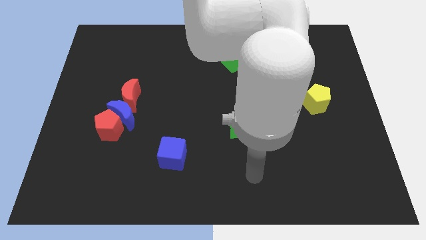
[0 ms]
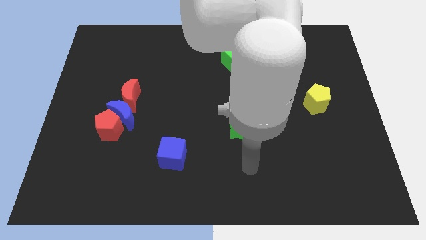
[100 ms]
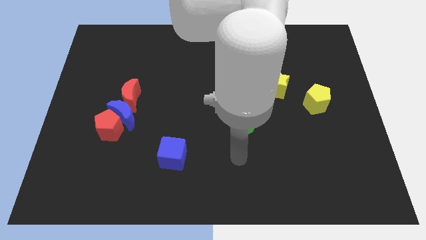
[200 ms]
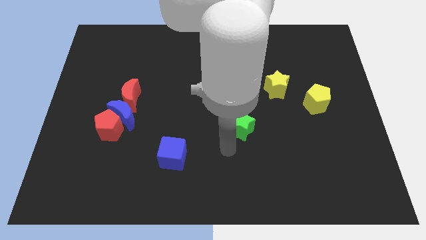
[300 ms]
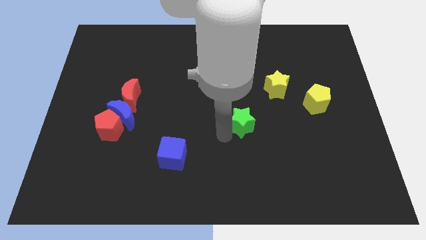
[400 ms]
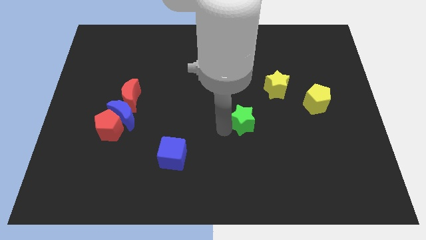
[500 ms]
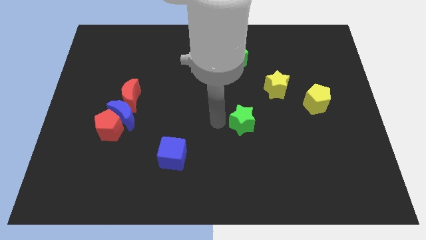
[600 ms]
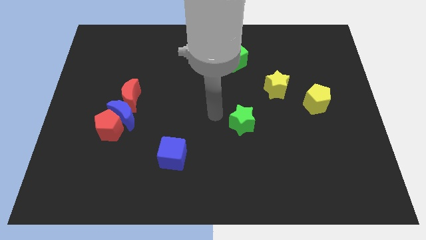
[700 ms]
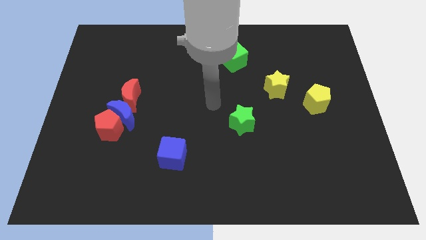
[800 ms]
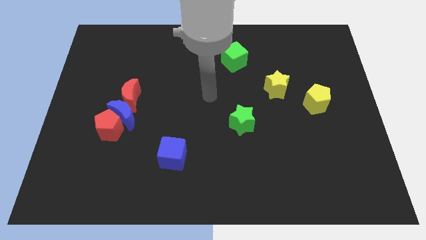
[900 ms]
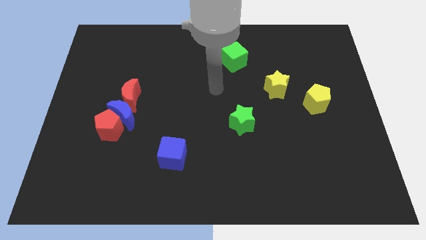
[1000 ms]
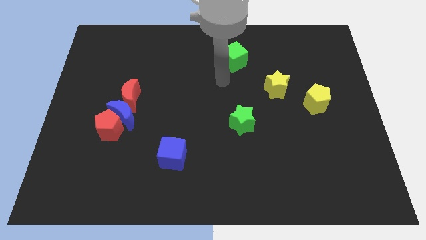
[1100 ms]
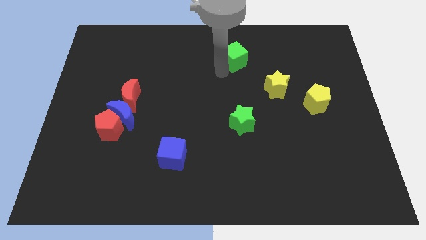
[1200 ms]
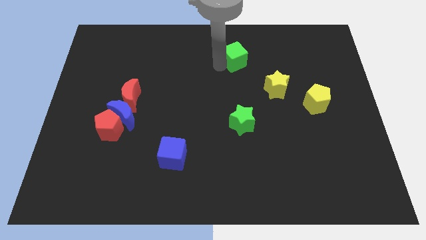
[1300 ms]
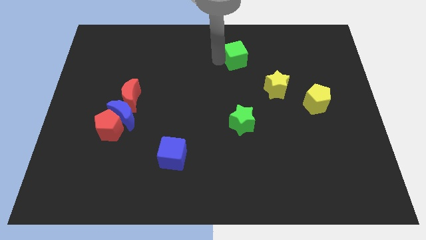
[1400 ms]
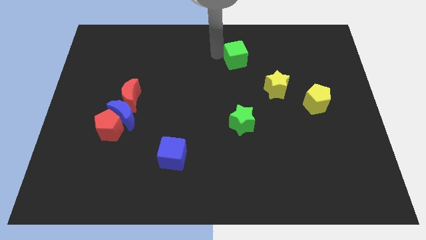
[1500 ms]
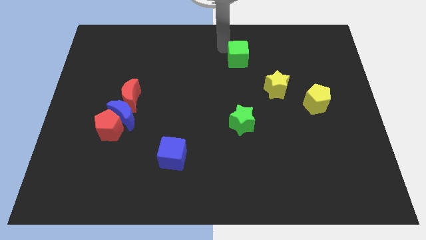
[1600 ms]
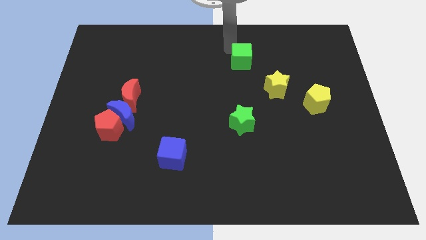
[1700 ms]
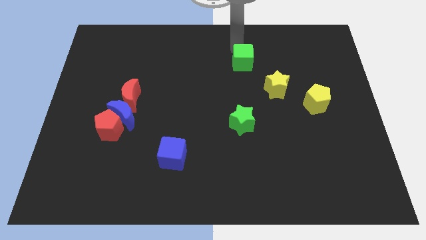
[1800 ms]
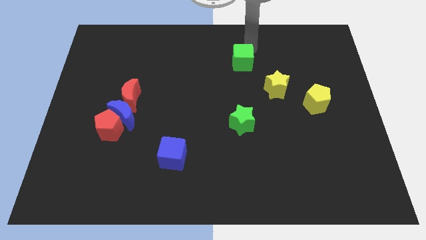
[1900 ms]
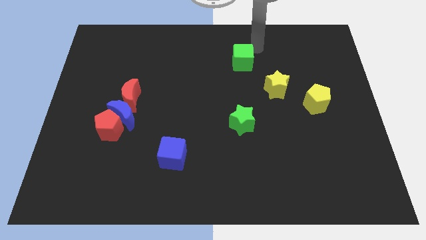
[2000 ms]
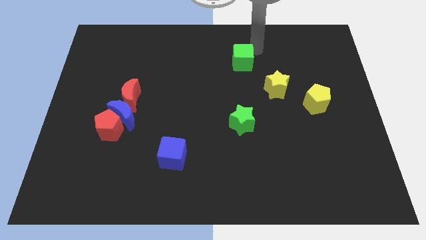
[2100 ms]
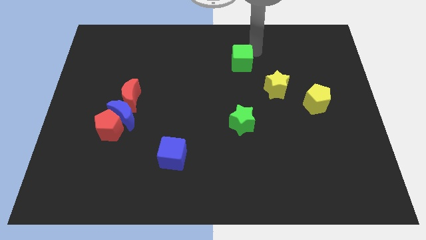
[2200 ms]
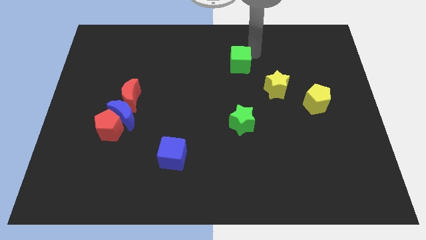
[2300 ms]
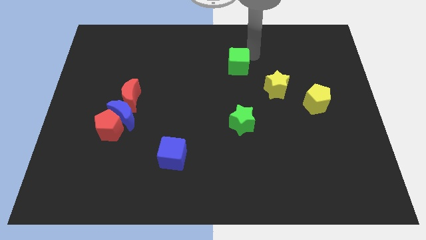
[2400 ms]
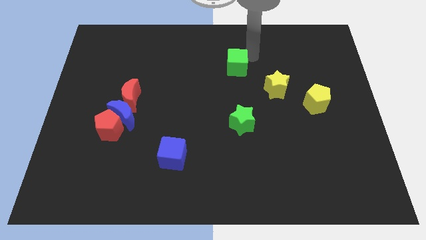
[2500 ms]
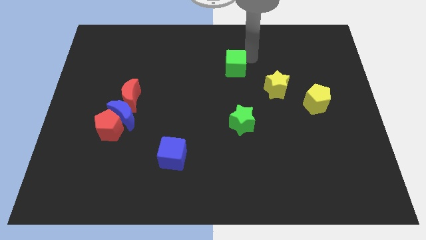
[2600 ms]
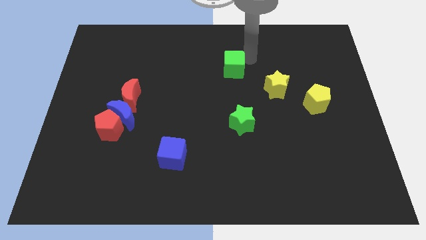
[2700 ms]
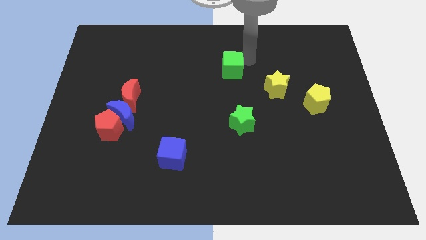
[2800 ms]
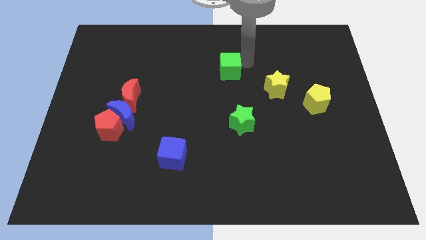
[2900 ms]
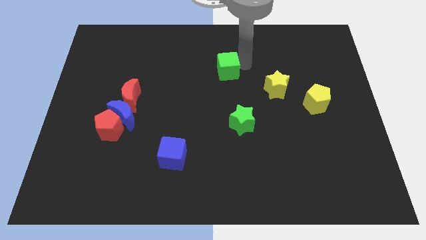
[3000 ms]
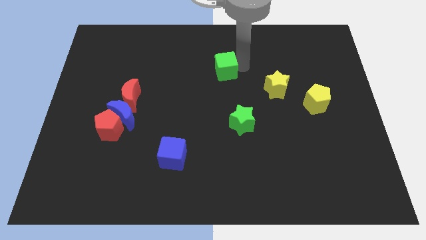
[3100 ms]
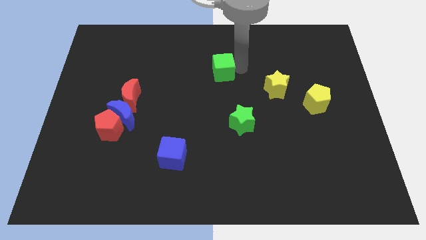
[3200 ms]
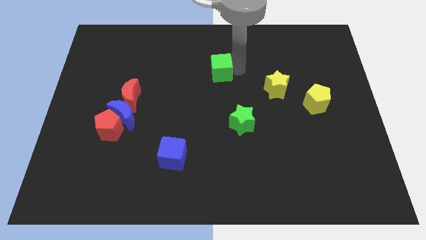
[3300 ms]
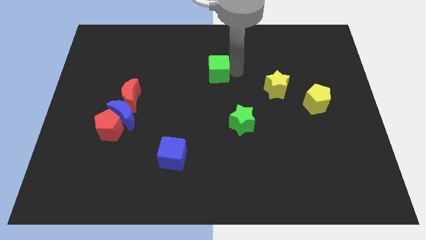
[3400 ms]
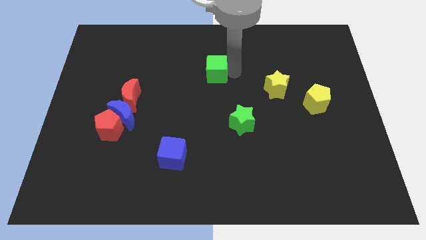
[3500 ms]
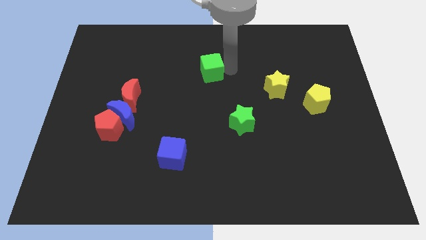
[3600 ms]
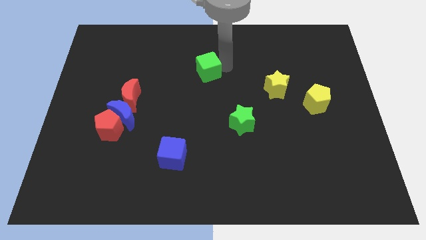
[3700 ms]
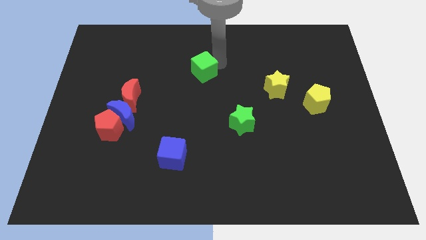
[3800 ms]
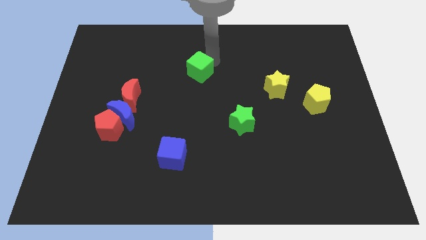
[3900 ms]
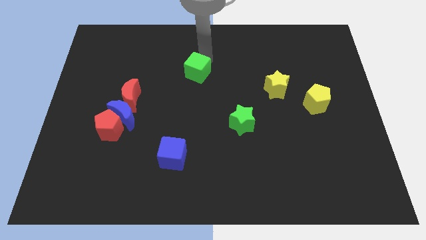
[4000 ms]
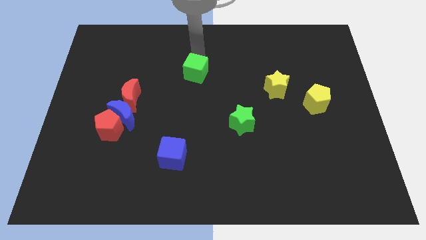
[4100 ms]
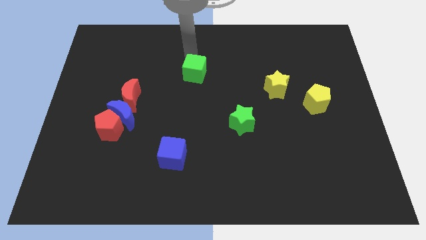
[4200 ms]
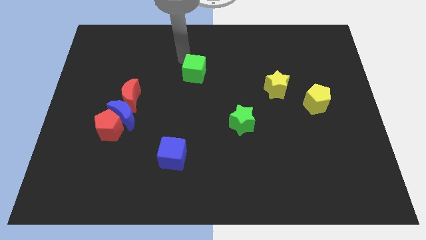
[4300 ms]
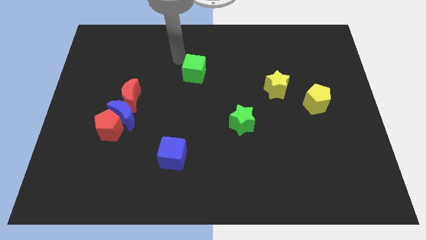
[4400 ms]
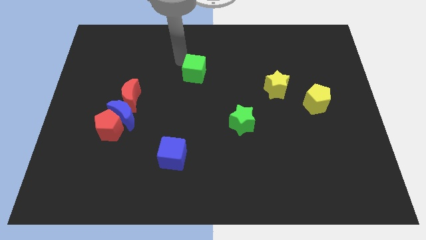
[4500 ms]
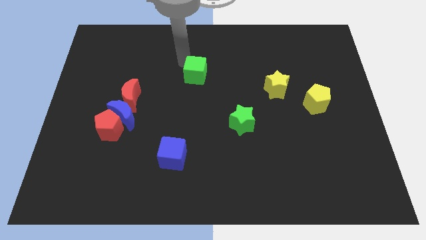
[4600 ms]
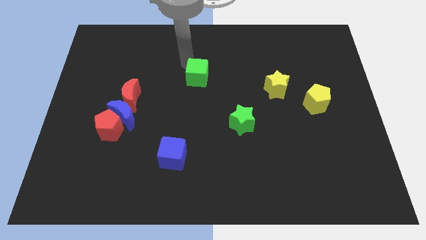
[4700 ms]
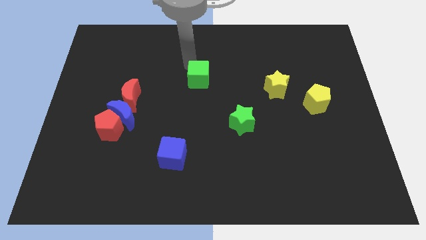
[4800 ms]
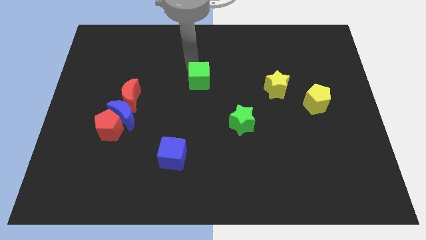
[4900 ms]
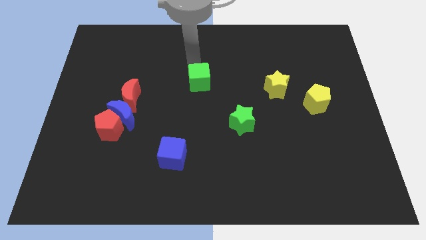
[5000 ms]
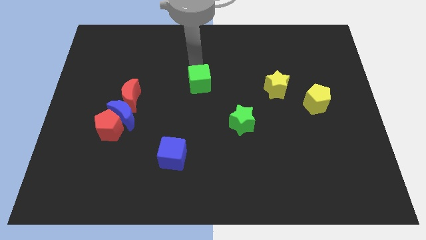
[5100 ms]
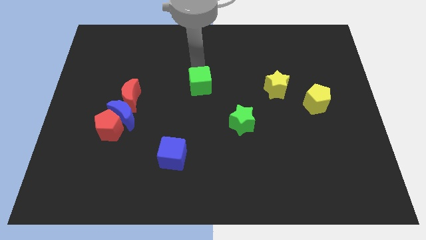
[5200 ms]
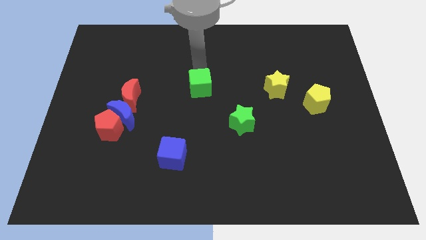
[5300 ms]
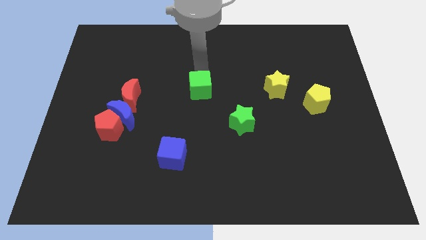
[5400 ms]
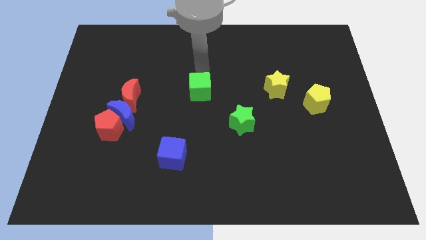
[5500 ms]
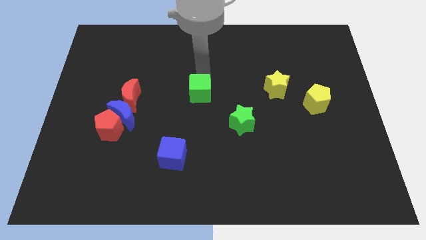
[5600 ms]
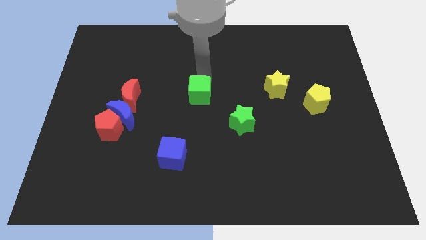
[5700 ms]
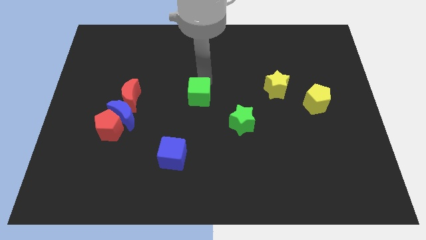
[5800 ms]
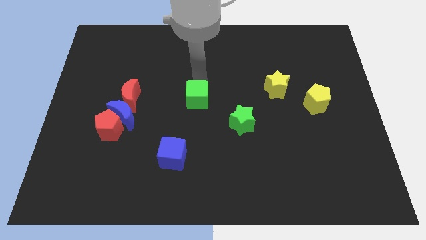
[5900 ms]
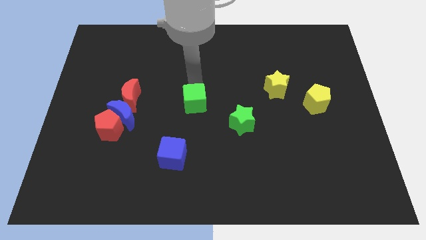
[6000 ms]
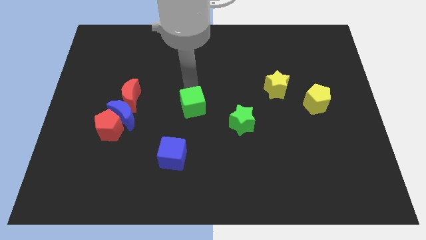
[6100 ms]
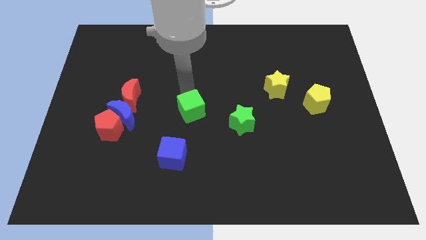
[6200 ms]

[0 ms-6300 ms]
move the green cube to the left side of the green star
